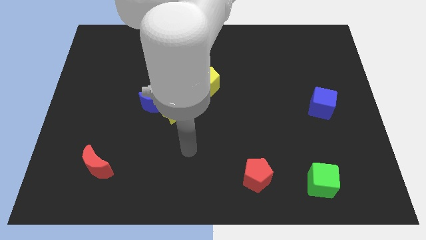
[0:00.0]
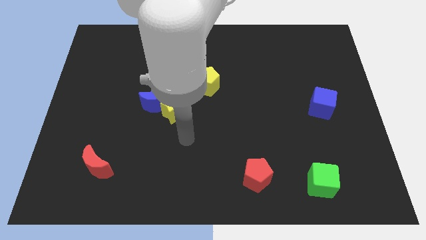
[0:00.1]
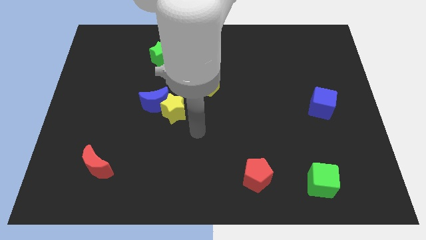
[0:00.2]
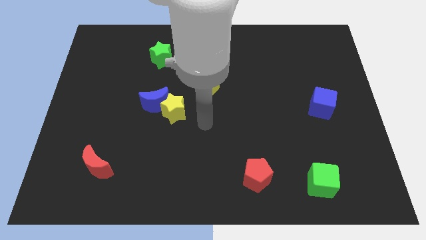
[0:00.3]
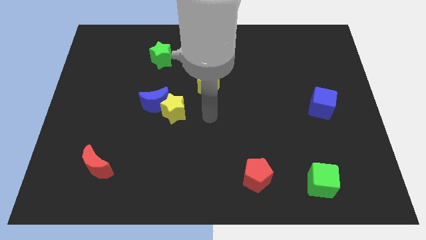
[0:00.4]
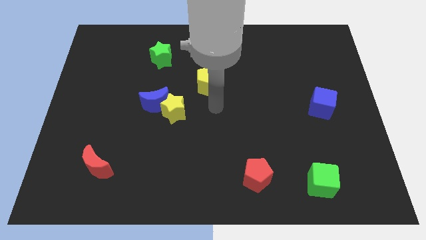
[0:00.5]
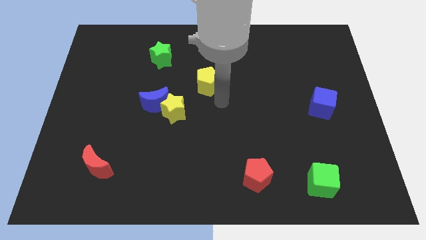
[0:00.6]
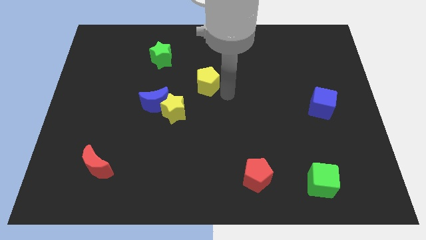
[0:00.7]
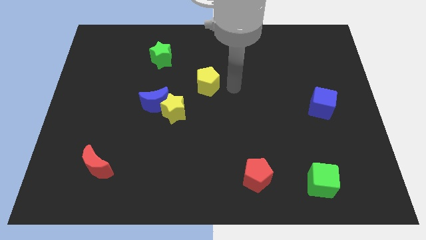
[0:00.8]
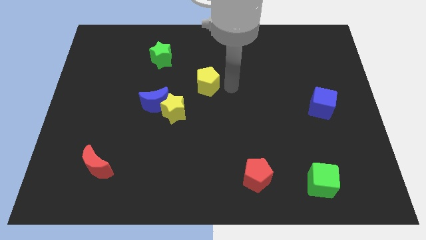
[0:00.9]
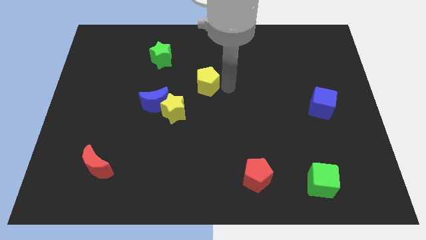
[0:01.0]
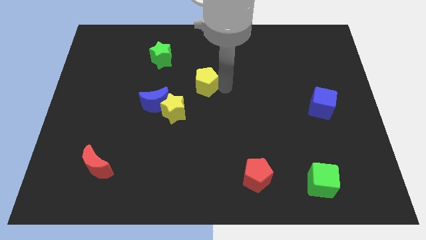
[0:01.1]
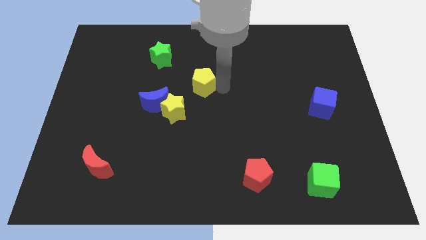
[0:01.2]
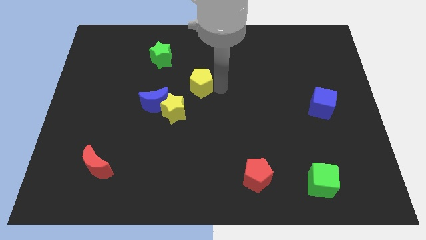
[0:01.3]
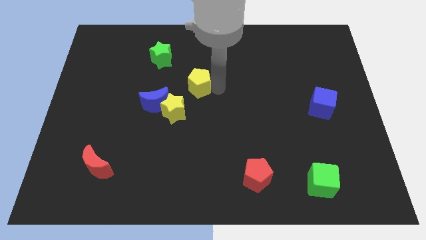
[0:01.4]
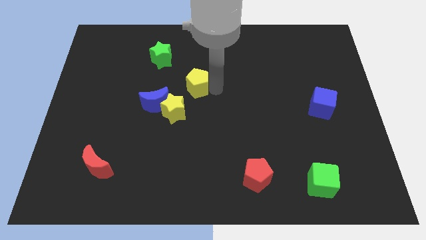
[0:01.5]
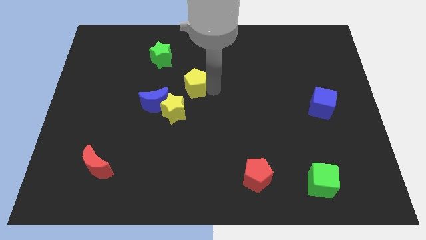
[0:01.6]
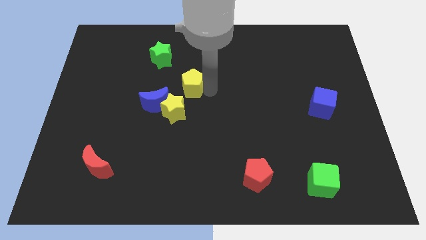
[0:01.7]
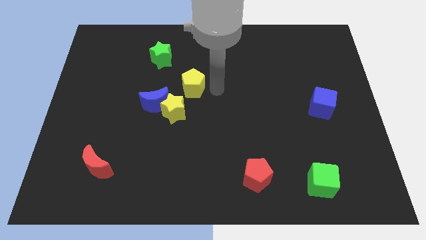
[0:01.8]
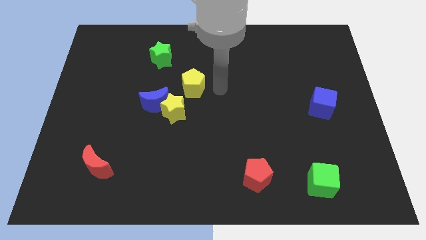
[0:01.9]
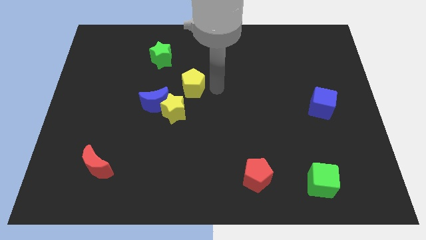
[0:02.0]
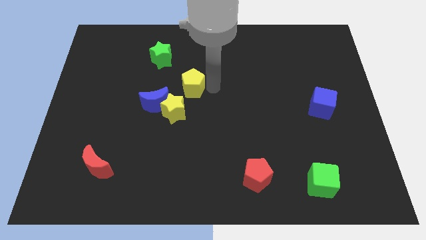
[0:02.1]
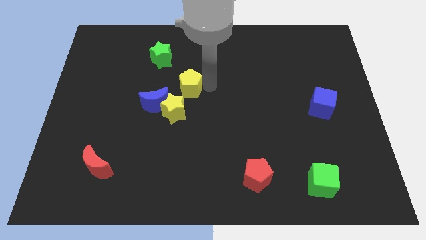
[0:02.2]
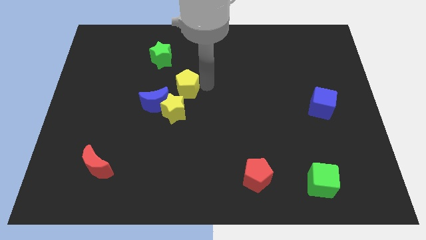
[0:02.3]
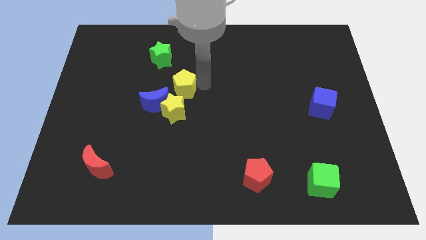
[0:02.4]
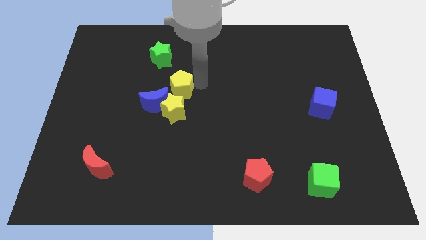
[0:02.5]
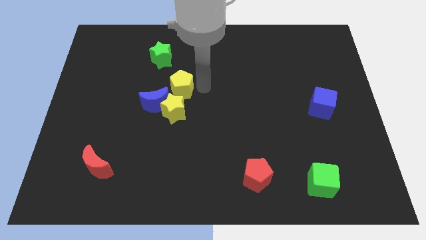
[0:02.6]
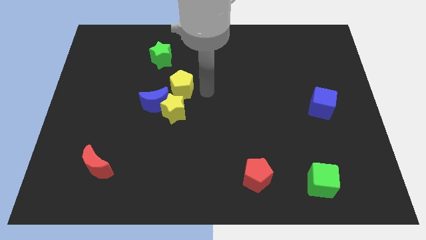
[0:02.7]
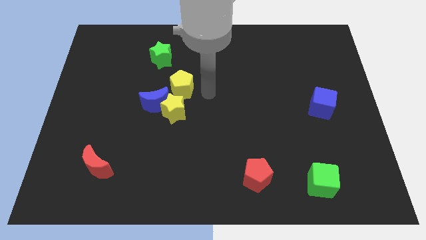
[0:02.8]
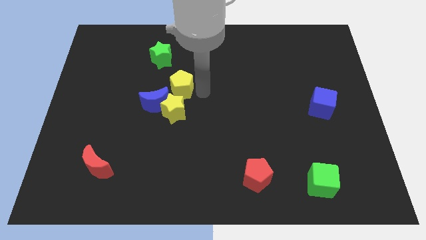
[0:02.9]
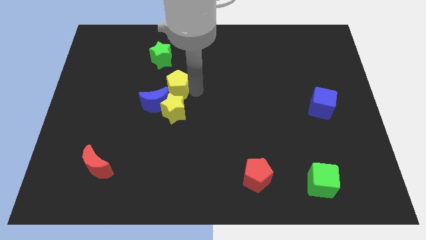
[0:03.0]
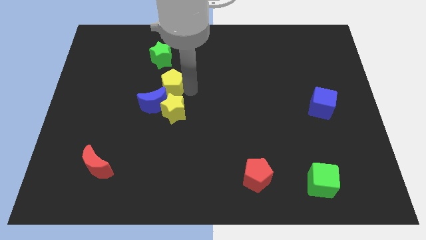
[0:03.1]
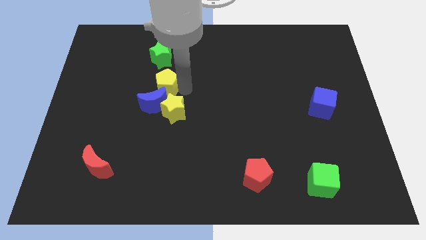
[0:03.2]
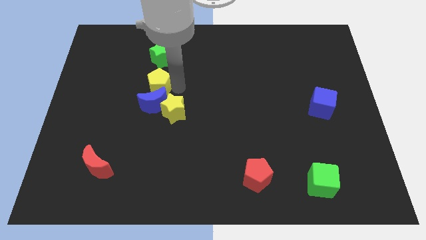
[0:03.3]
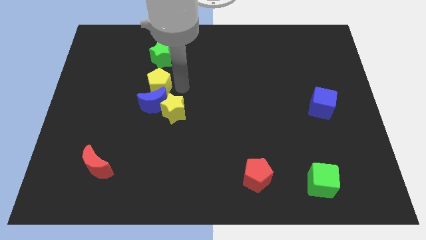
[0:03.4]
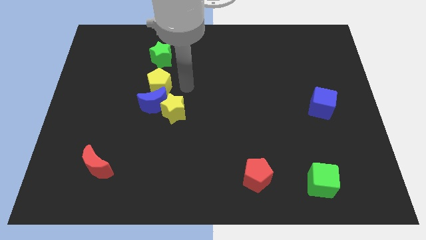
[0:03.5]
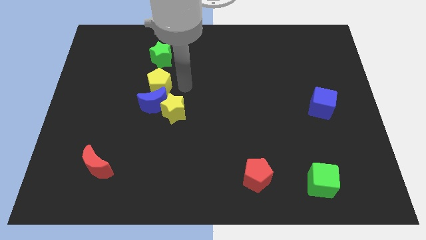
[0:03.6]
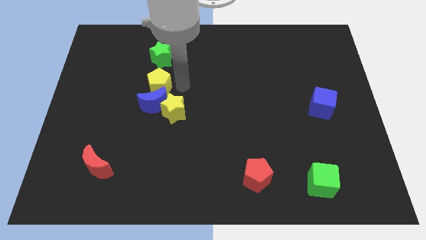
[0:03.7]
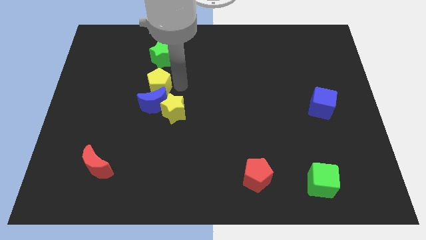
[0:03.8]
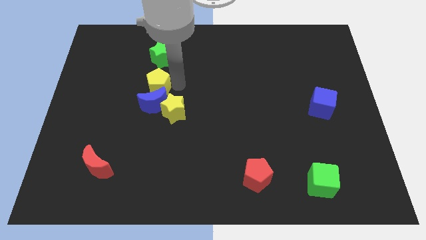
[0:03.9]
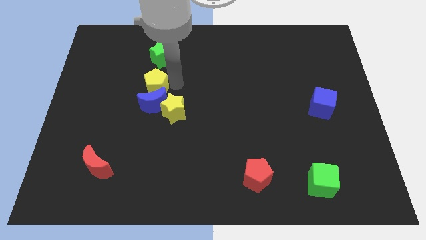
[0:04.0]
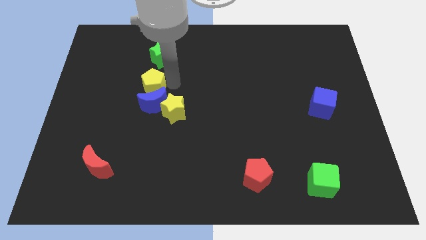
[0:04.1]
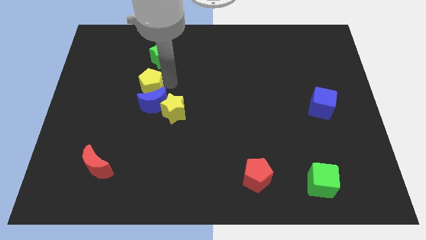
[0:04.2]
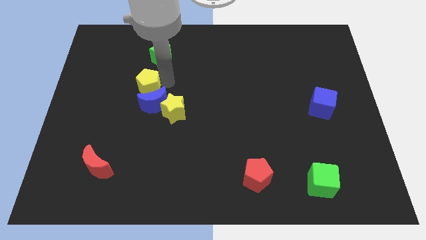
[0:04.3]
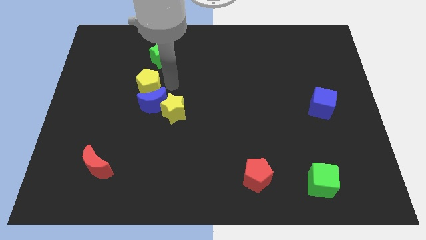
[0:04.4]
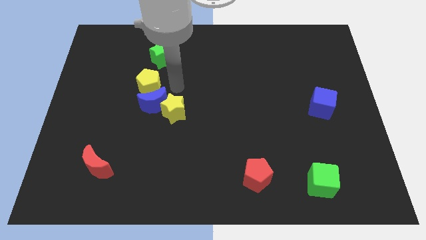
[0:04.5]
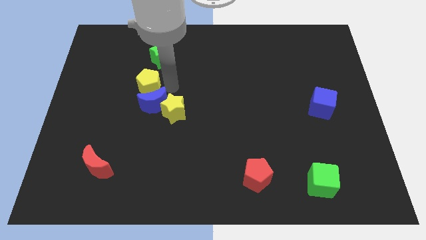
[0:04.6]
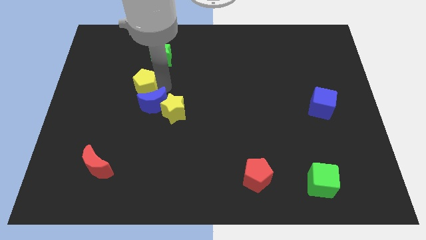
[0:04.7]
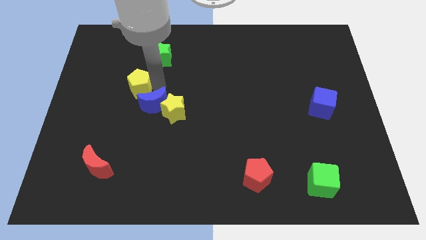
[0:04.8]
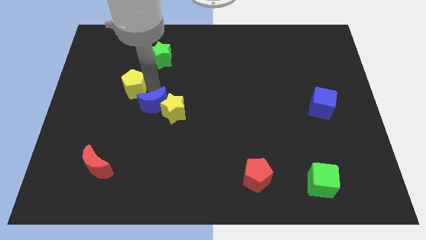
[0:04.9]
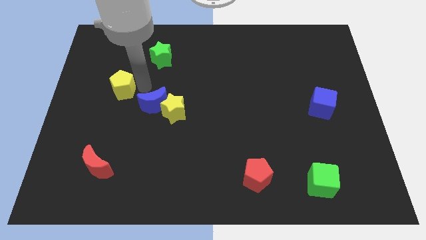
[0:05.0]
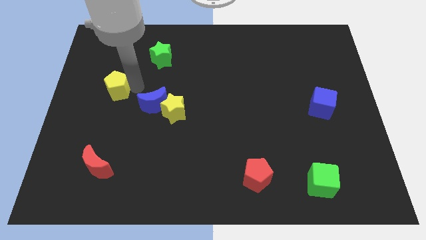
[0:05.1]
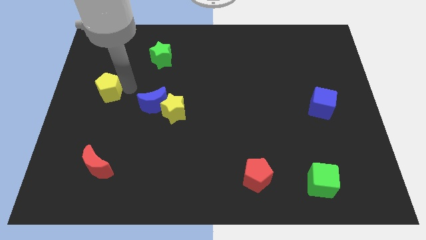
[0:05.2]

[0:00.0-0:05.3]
put the yellow pentagon to the center left

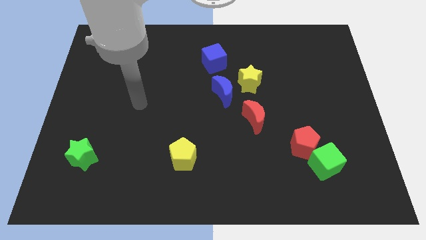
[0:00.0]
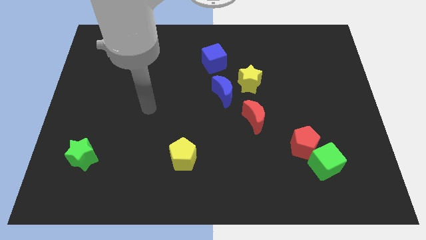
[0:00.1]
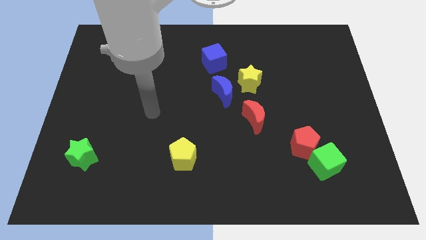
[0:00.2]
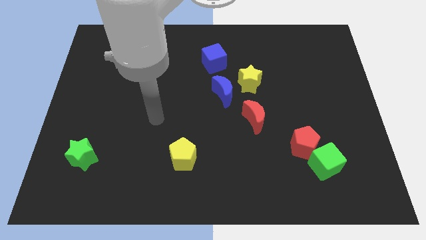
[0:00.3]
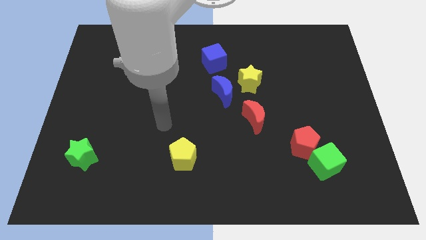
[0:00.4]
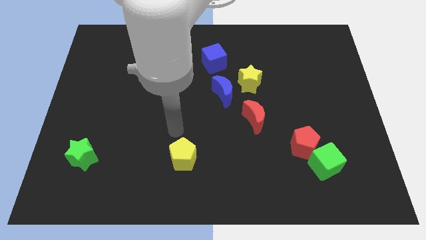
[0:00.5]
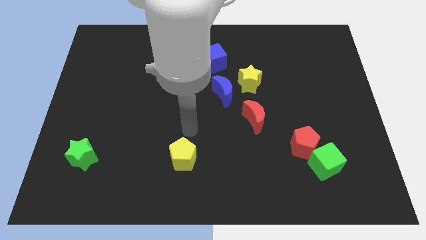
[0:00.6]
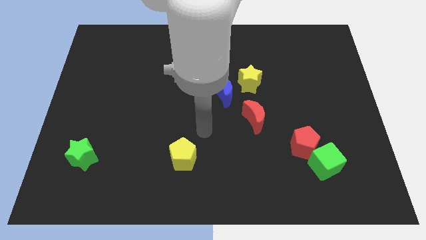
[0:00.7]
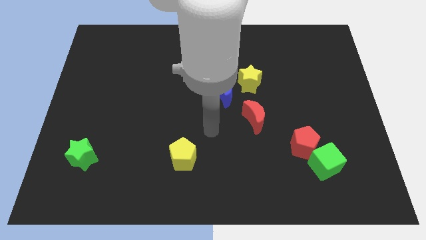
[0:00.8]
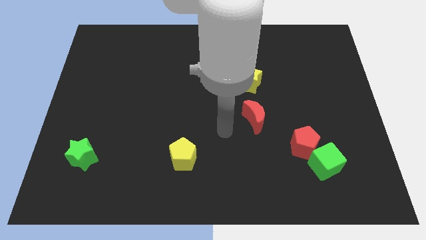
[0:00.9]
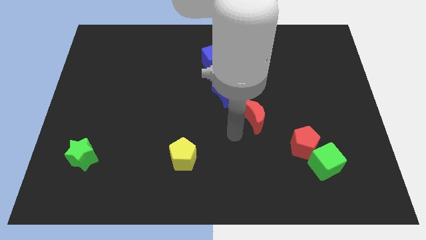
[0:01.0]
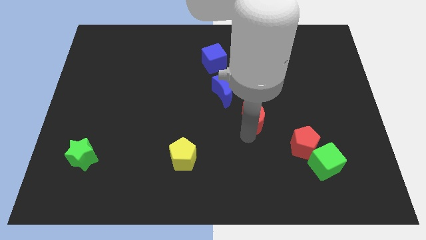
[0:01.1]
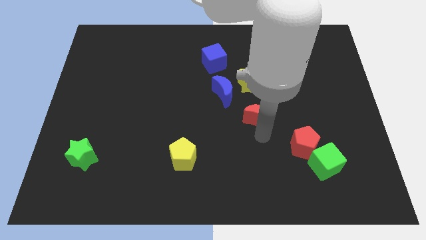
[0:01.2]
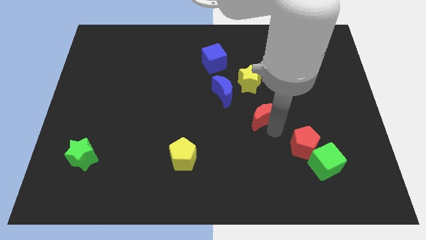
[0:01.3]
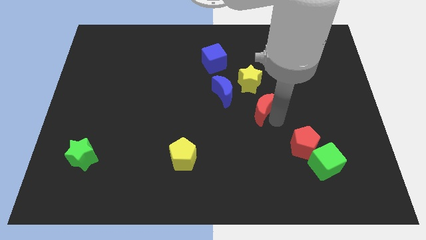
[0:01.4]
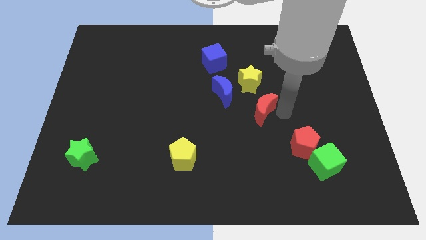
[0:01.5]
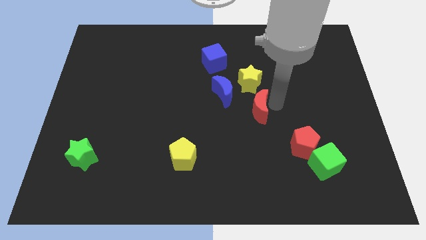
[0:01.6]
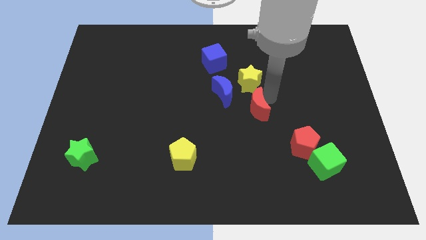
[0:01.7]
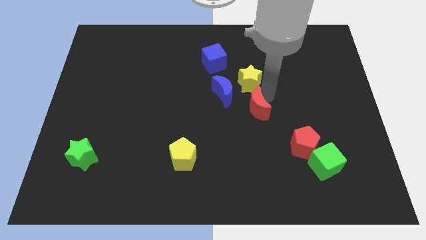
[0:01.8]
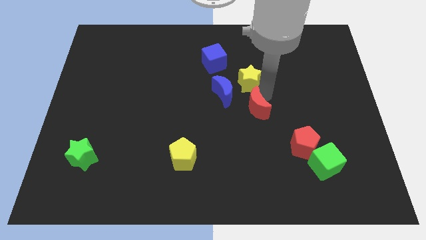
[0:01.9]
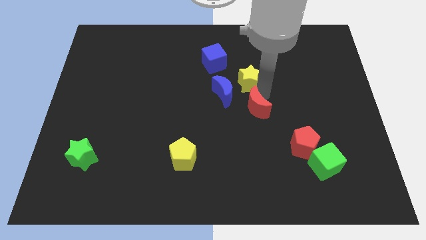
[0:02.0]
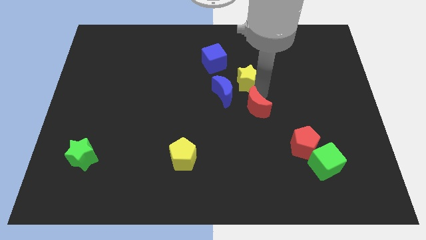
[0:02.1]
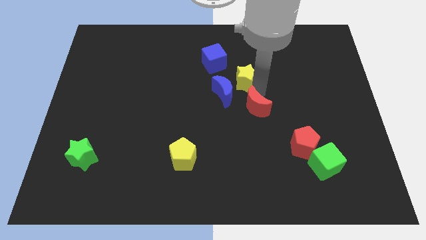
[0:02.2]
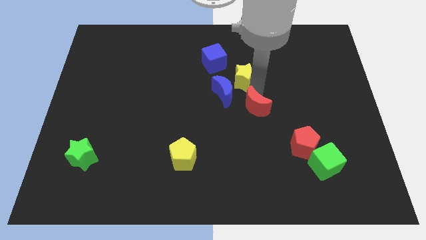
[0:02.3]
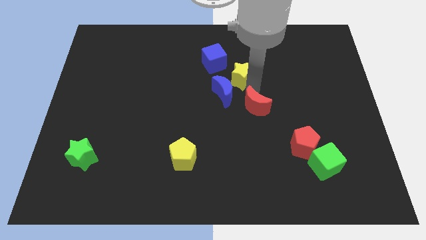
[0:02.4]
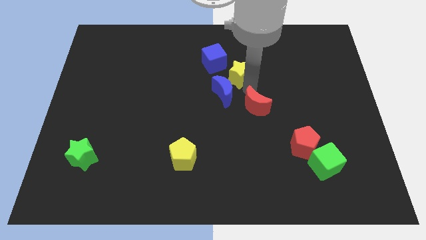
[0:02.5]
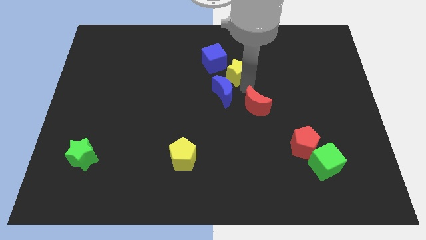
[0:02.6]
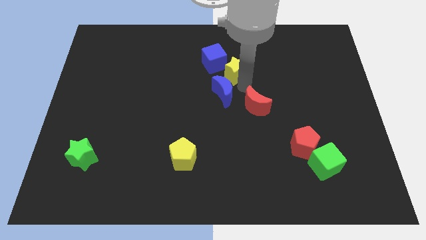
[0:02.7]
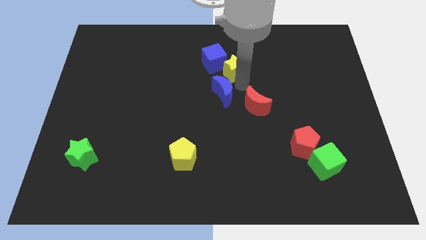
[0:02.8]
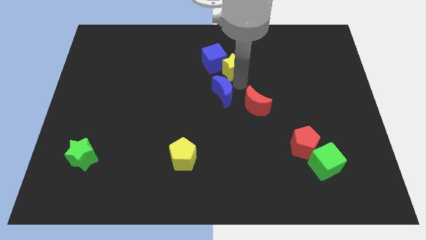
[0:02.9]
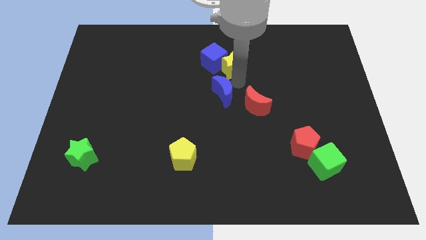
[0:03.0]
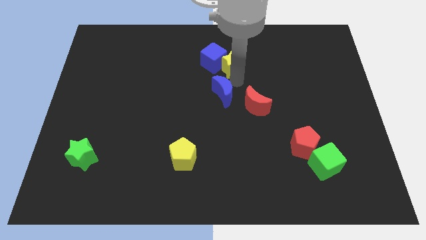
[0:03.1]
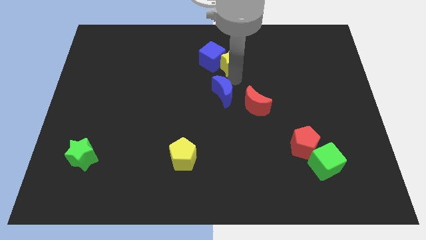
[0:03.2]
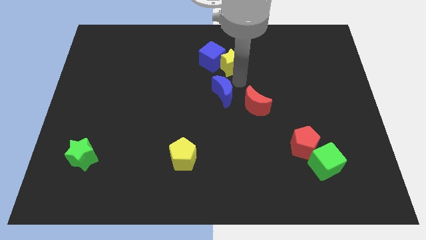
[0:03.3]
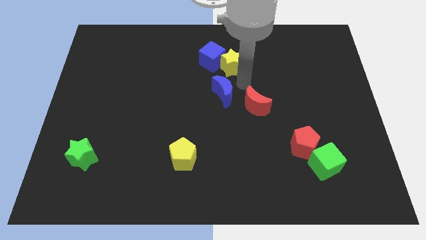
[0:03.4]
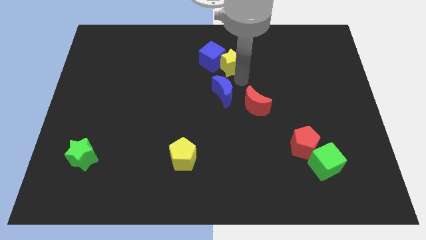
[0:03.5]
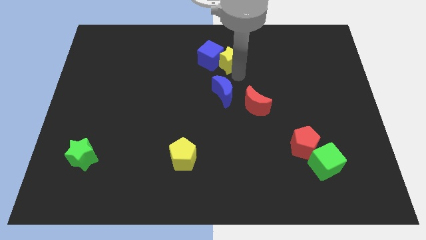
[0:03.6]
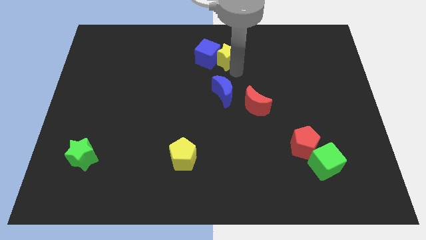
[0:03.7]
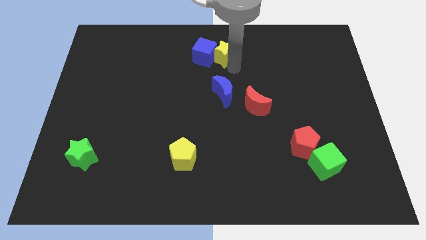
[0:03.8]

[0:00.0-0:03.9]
move the yellow star to the top
